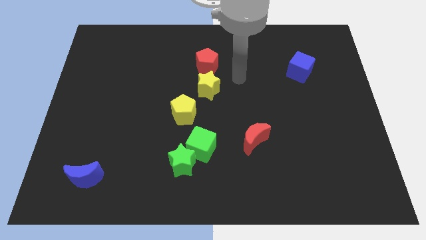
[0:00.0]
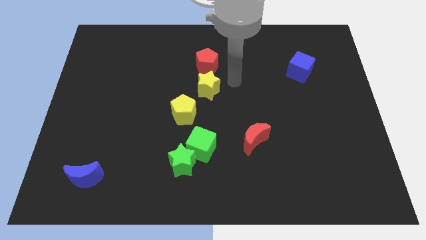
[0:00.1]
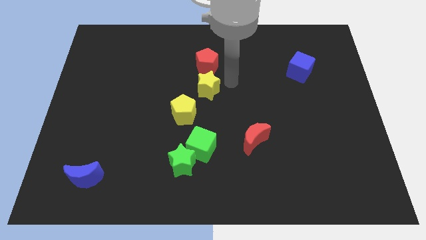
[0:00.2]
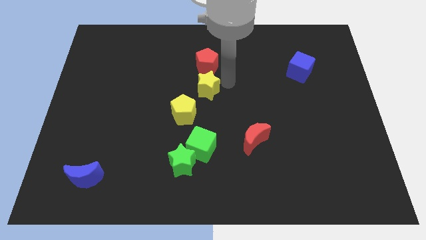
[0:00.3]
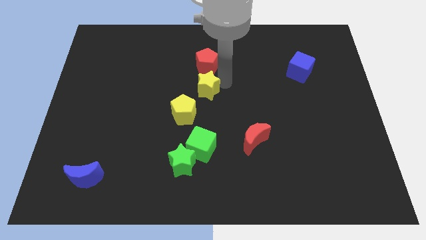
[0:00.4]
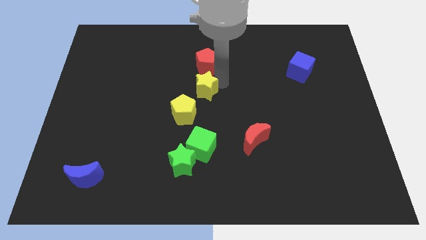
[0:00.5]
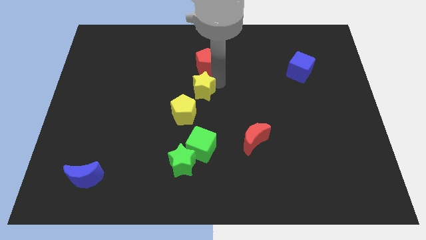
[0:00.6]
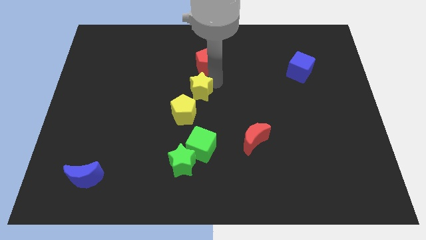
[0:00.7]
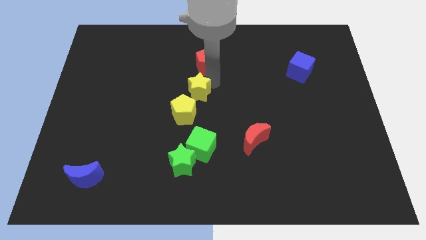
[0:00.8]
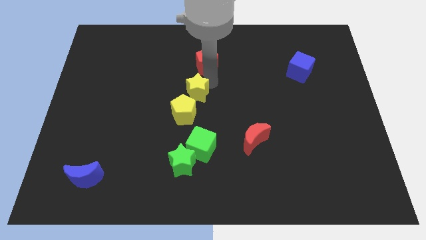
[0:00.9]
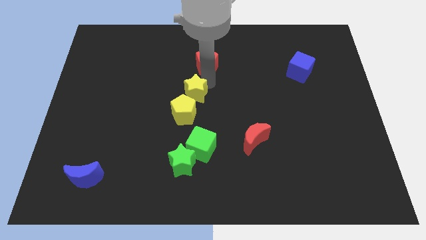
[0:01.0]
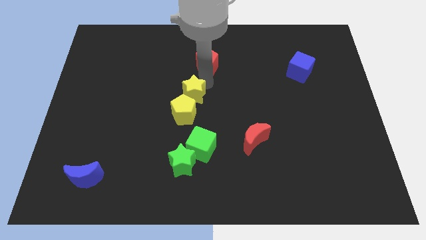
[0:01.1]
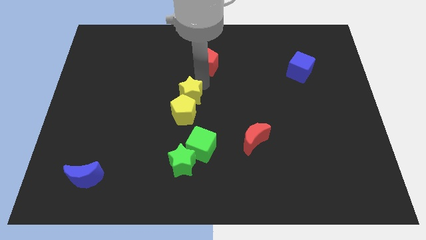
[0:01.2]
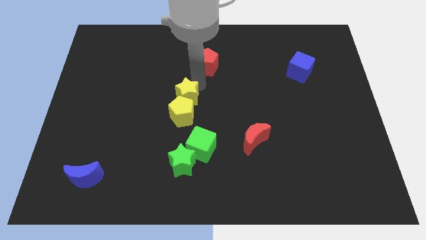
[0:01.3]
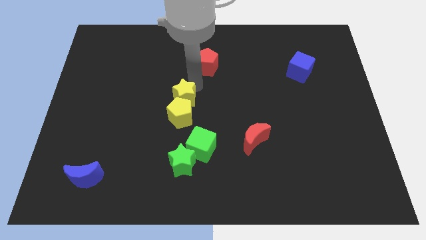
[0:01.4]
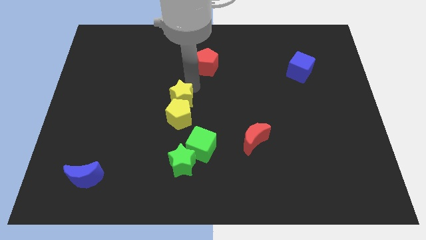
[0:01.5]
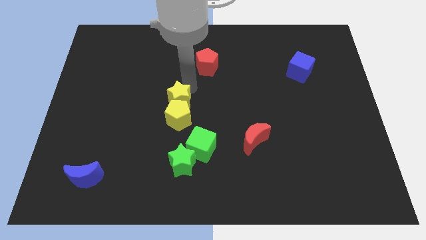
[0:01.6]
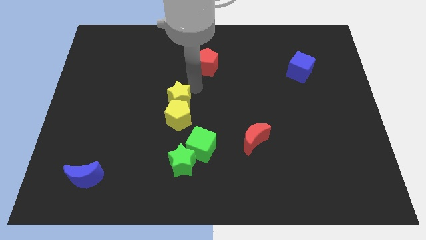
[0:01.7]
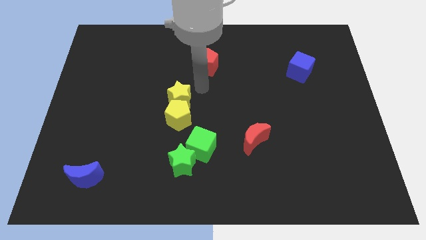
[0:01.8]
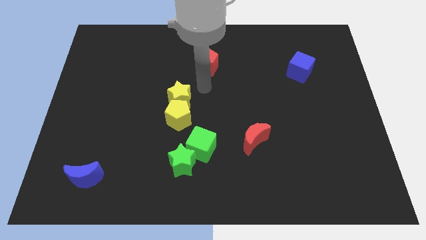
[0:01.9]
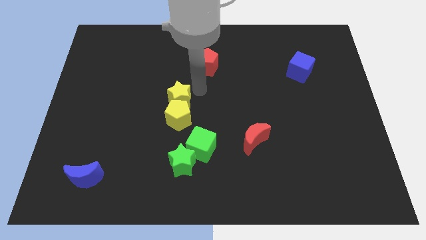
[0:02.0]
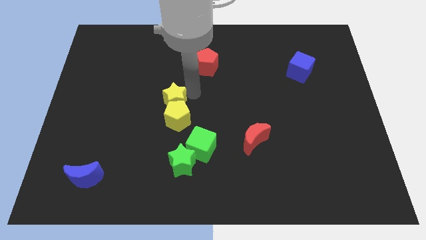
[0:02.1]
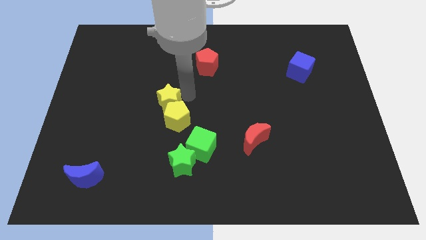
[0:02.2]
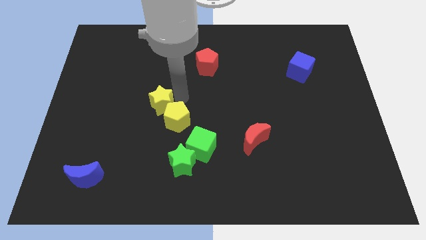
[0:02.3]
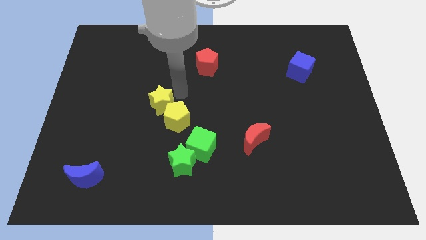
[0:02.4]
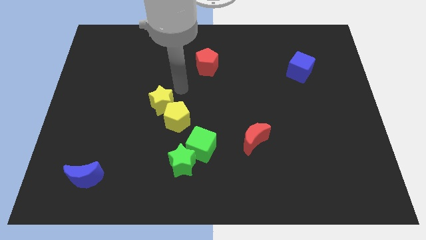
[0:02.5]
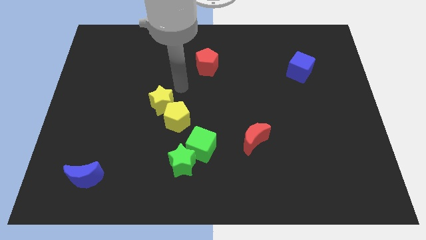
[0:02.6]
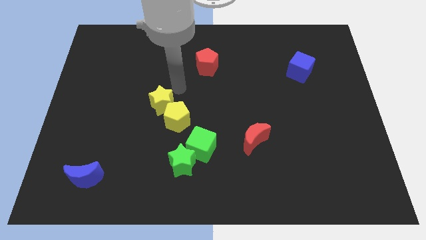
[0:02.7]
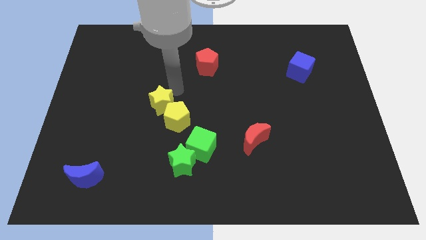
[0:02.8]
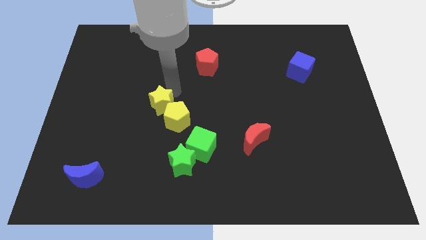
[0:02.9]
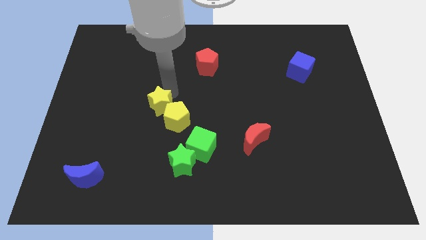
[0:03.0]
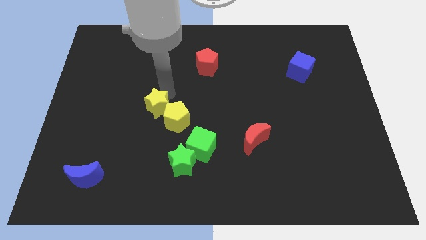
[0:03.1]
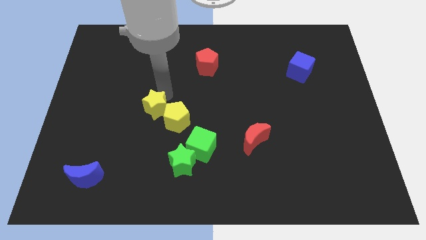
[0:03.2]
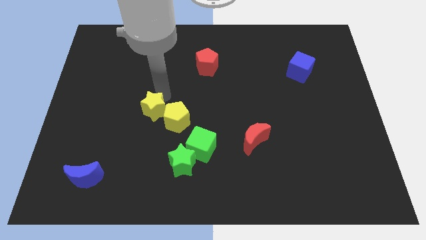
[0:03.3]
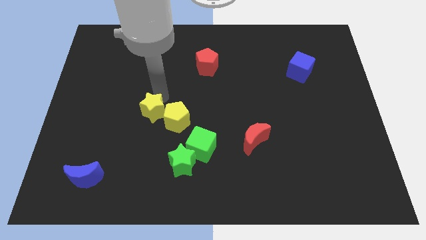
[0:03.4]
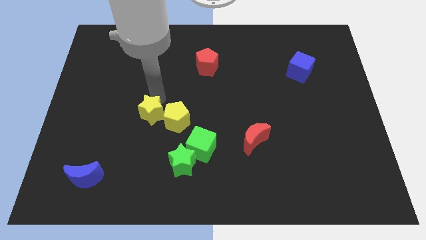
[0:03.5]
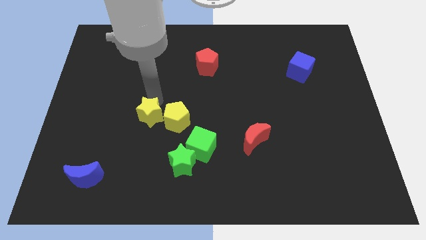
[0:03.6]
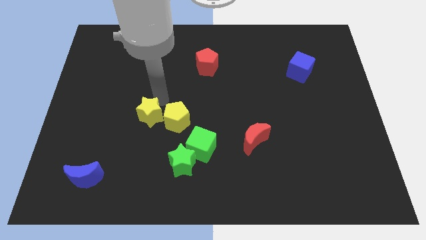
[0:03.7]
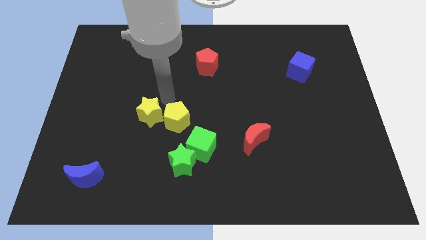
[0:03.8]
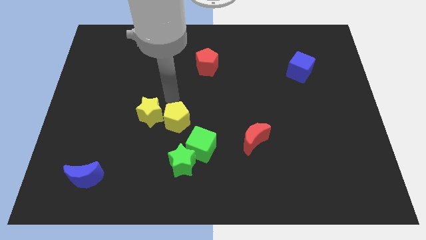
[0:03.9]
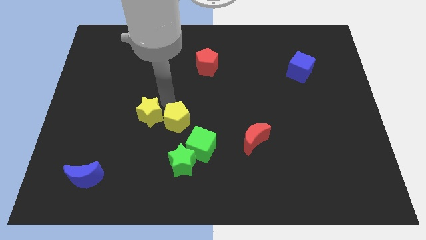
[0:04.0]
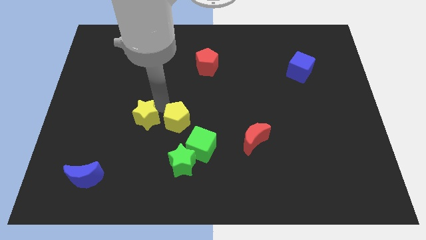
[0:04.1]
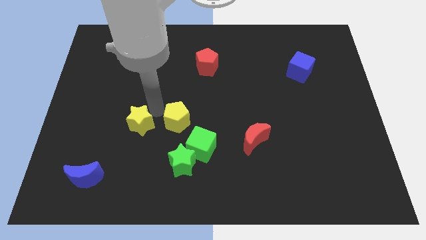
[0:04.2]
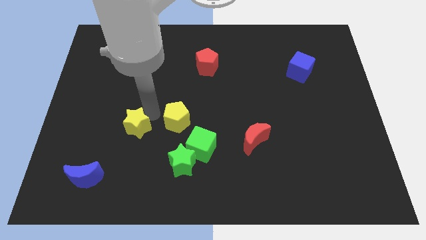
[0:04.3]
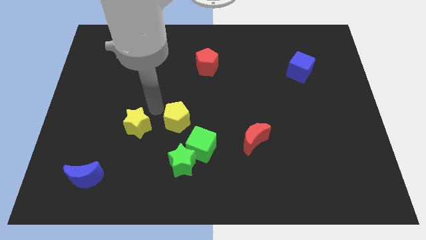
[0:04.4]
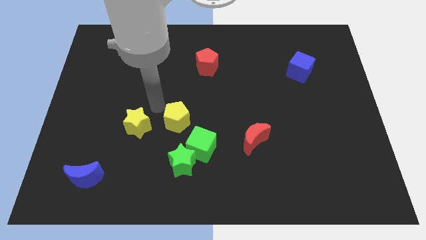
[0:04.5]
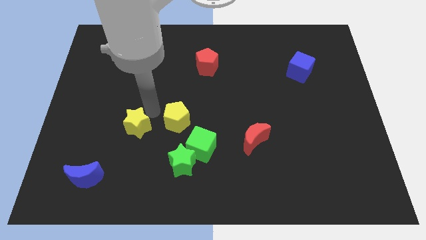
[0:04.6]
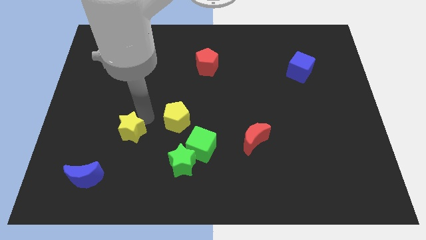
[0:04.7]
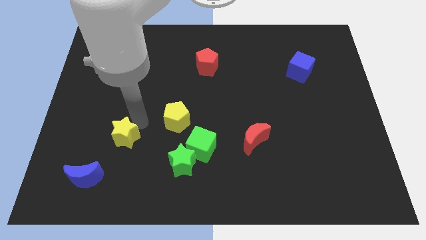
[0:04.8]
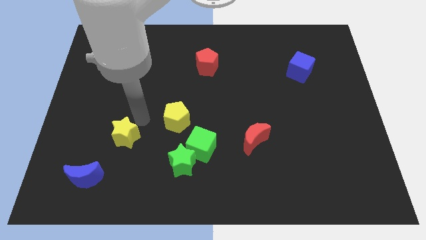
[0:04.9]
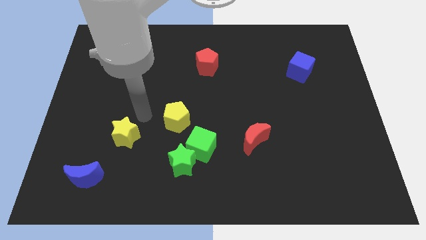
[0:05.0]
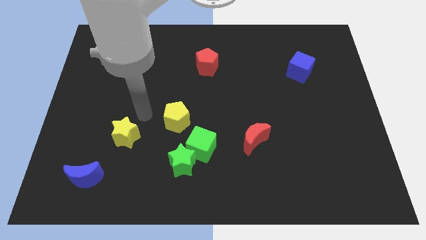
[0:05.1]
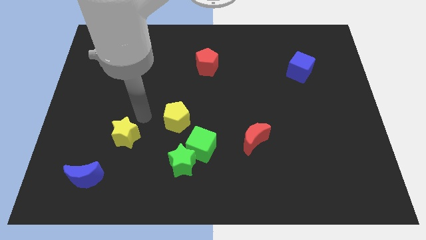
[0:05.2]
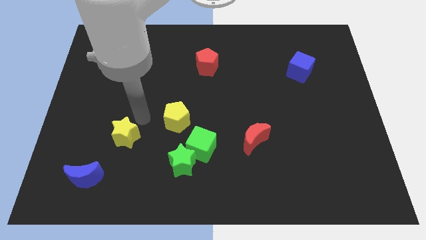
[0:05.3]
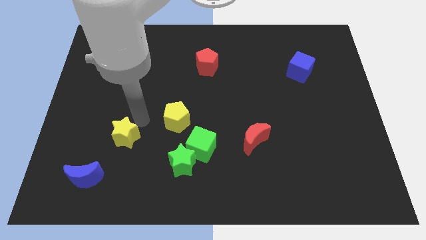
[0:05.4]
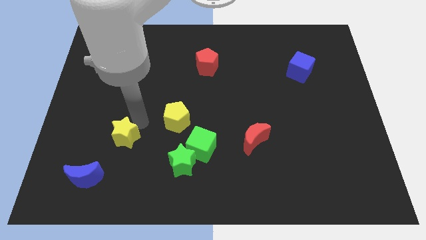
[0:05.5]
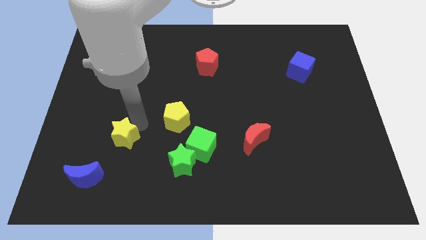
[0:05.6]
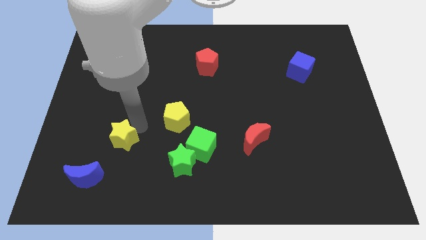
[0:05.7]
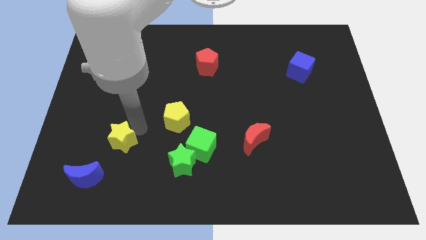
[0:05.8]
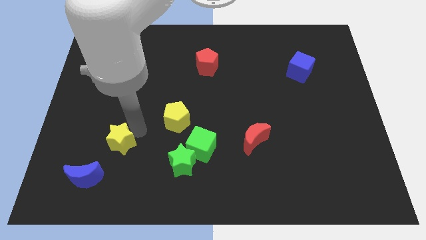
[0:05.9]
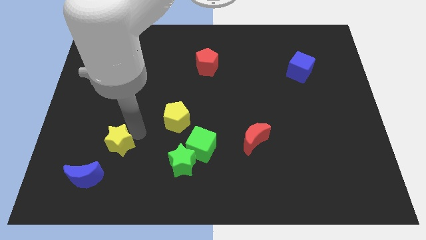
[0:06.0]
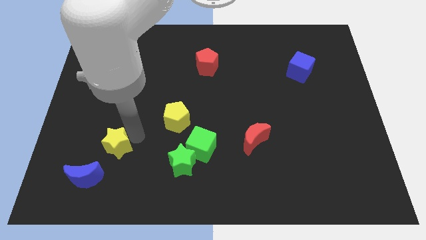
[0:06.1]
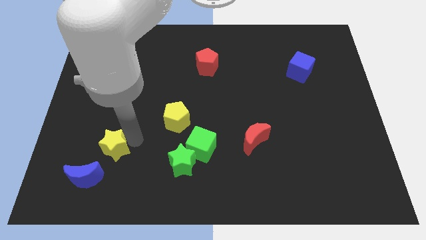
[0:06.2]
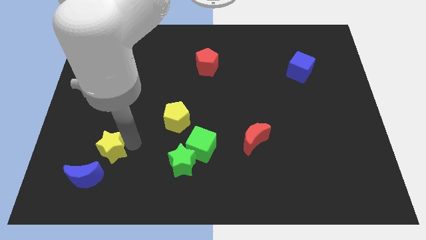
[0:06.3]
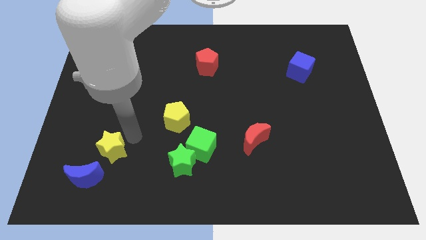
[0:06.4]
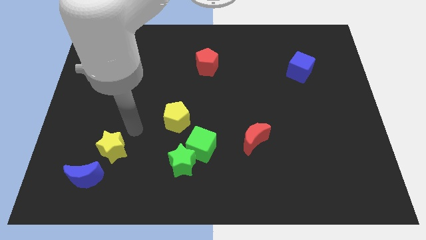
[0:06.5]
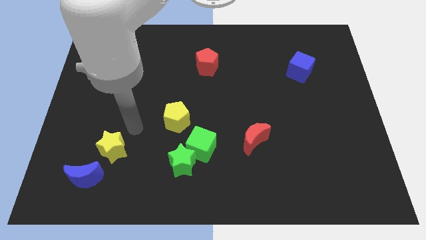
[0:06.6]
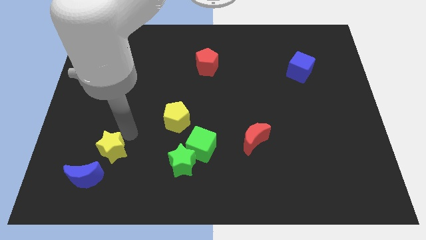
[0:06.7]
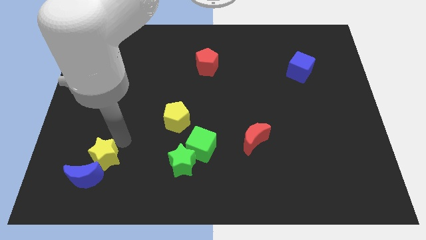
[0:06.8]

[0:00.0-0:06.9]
push the yellow star towards the blue moon
